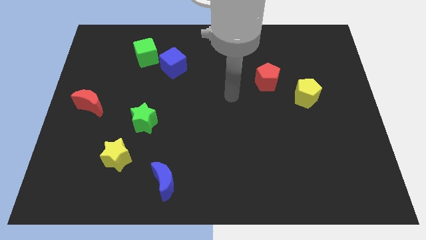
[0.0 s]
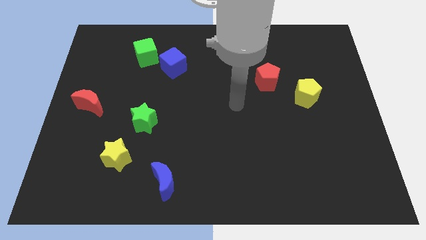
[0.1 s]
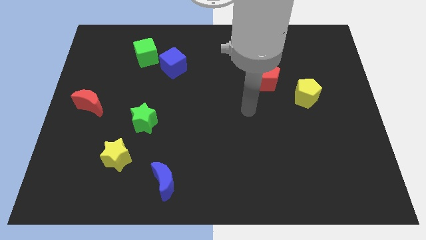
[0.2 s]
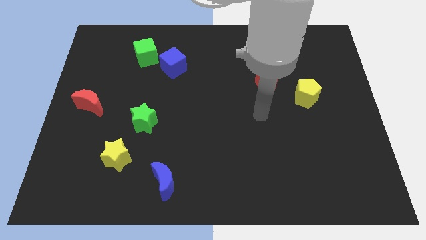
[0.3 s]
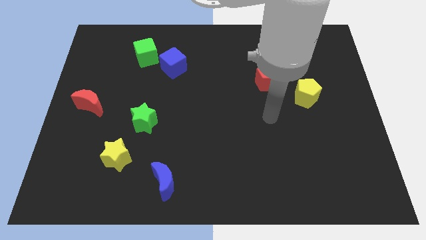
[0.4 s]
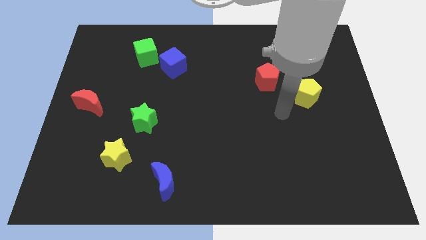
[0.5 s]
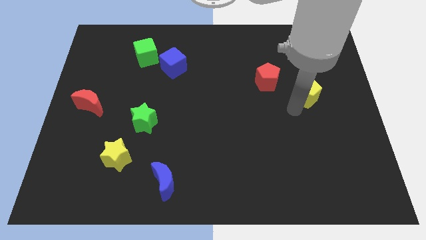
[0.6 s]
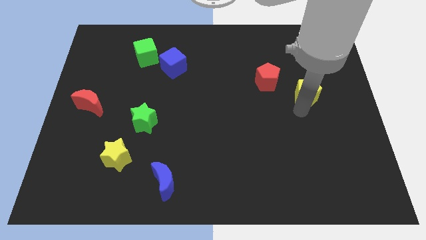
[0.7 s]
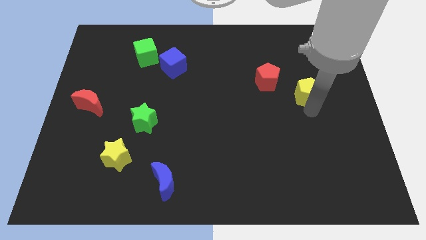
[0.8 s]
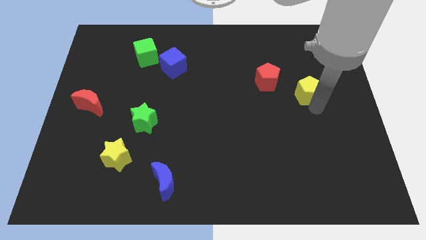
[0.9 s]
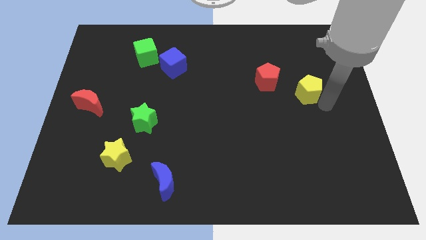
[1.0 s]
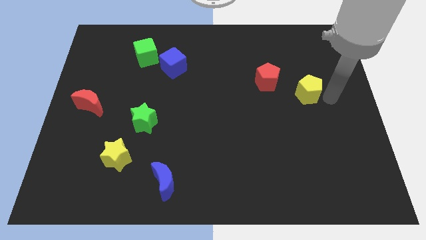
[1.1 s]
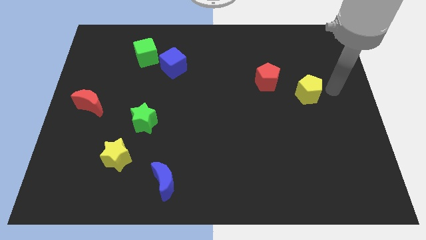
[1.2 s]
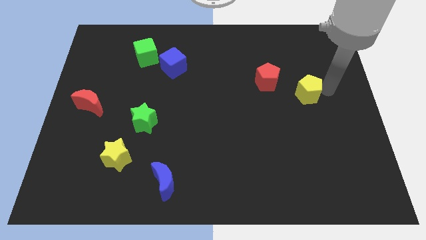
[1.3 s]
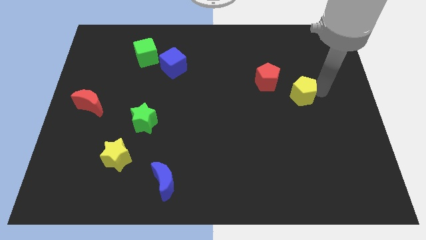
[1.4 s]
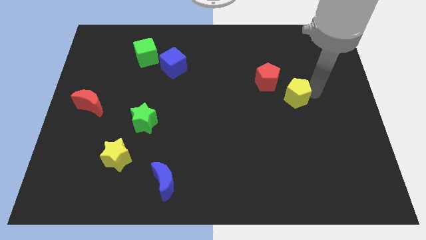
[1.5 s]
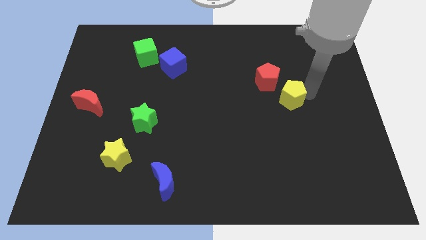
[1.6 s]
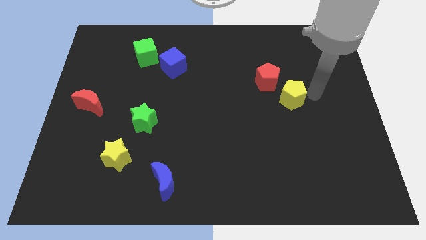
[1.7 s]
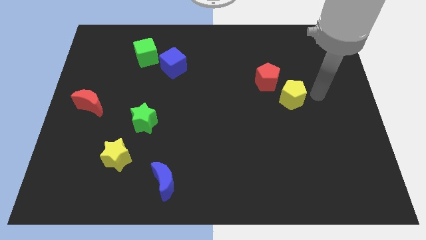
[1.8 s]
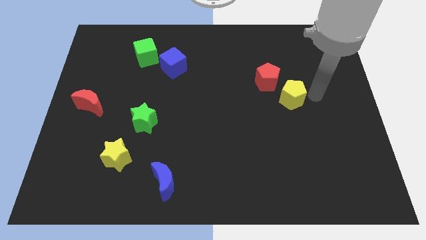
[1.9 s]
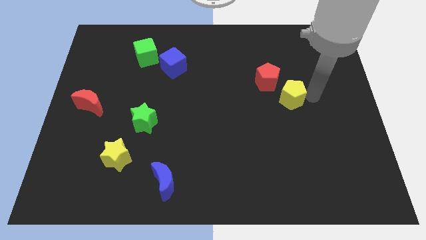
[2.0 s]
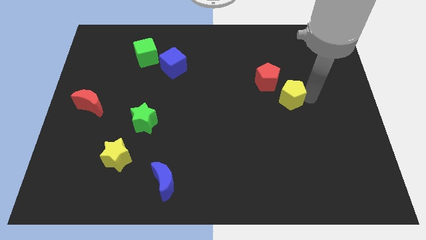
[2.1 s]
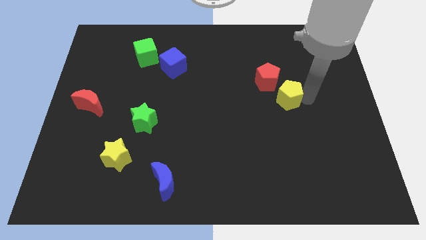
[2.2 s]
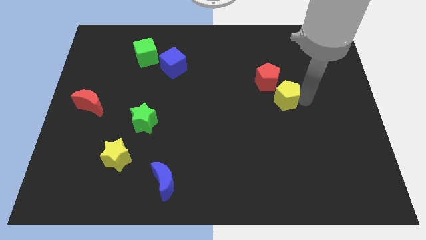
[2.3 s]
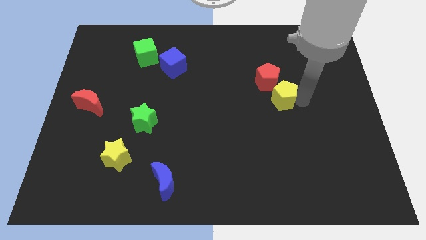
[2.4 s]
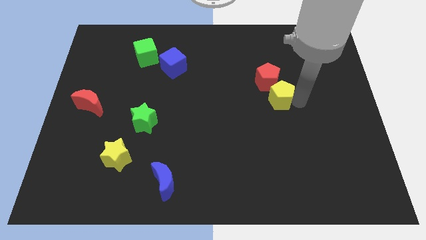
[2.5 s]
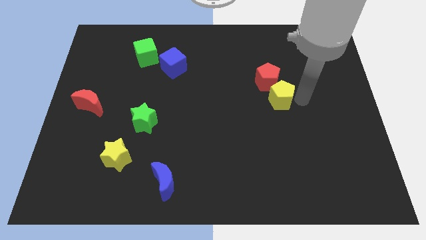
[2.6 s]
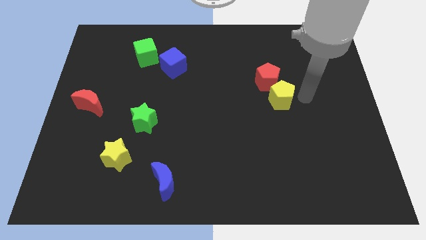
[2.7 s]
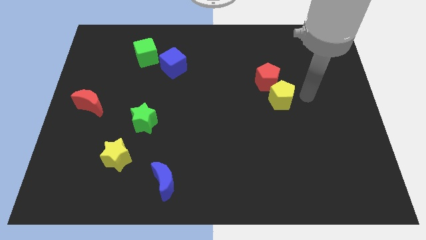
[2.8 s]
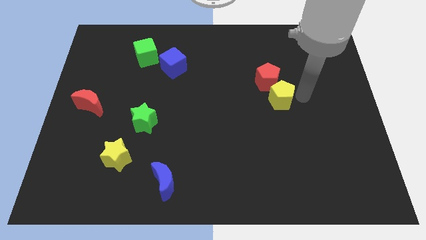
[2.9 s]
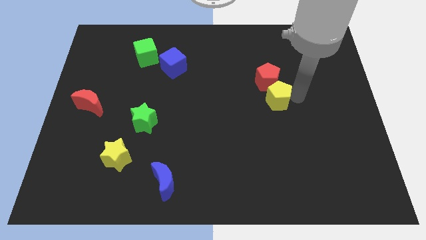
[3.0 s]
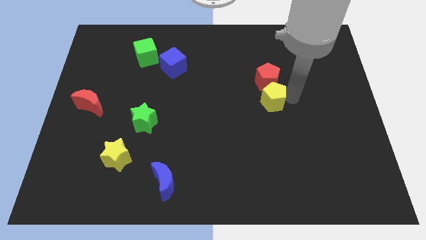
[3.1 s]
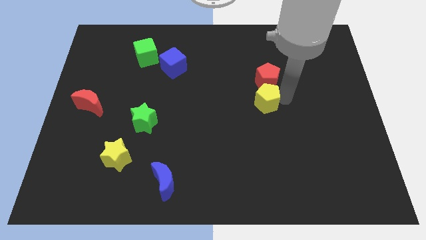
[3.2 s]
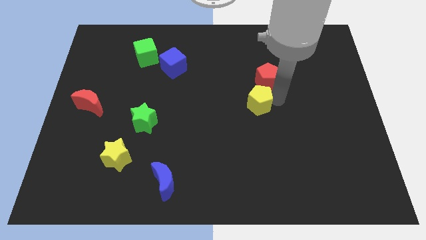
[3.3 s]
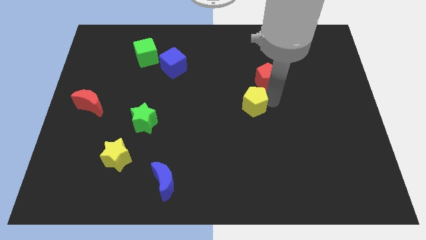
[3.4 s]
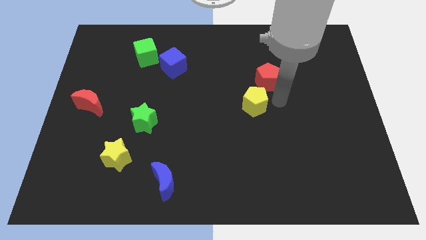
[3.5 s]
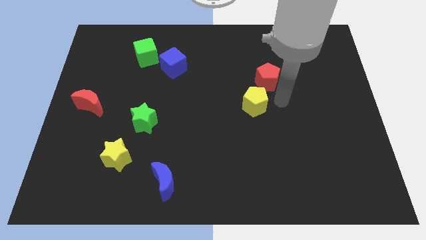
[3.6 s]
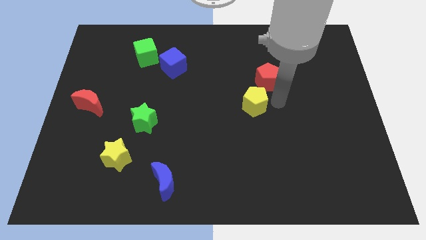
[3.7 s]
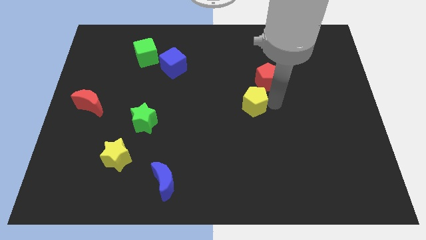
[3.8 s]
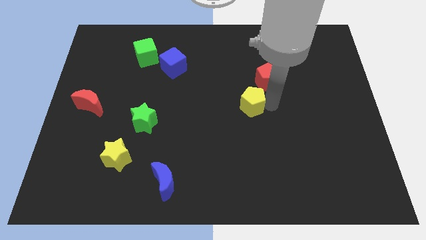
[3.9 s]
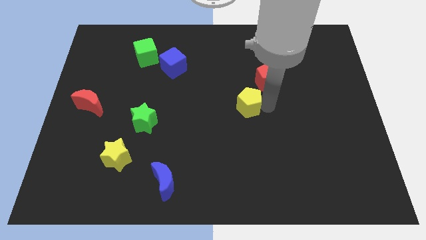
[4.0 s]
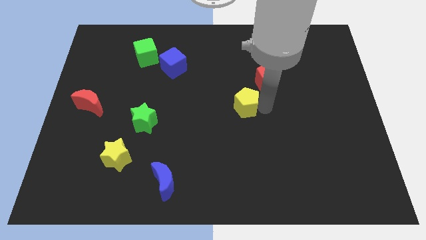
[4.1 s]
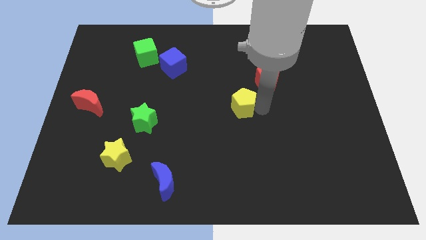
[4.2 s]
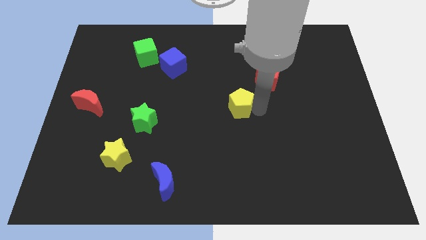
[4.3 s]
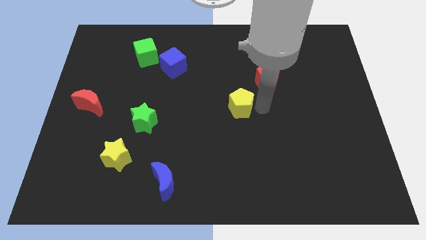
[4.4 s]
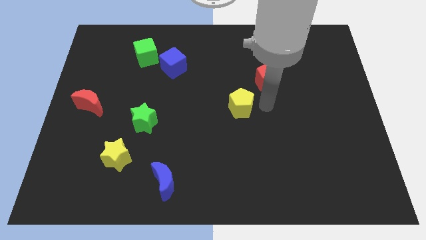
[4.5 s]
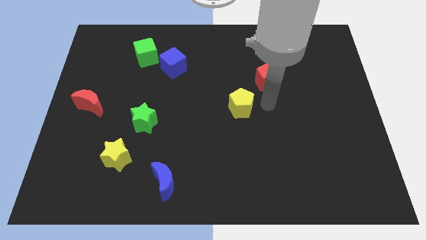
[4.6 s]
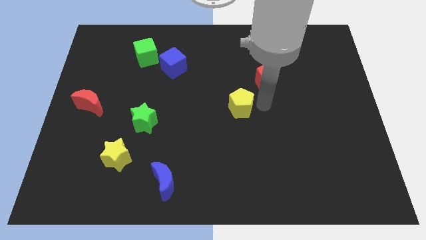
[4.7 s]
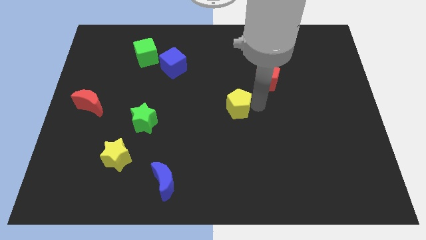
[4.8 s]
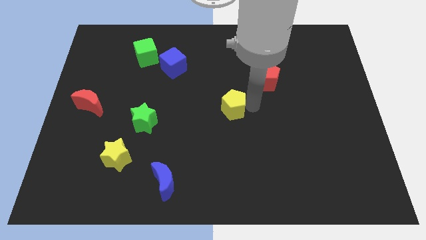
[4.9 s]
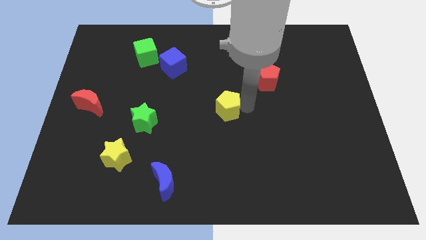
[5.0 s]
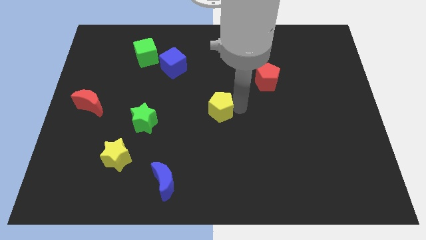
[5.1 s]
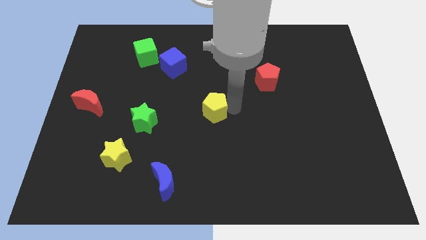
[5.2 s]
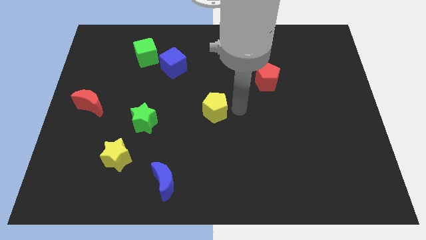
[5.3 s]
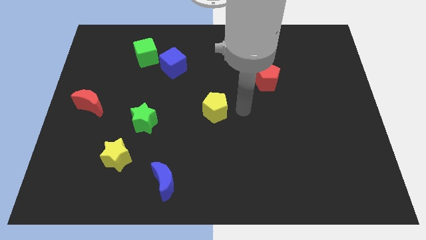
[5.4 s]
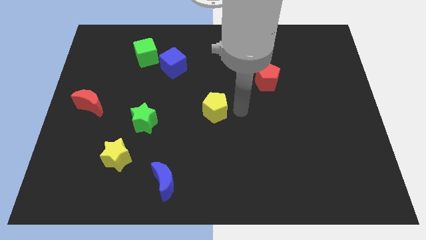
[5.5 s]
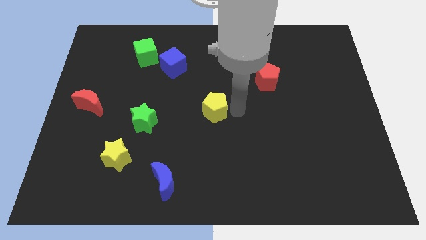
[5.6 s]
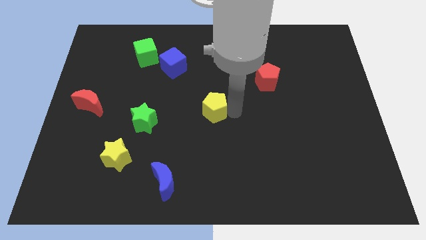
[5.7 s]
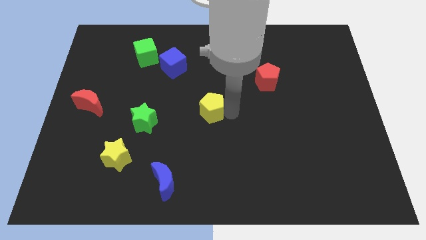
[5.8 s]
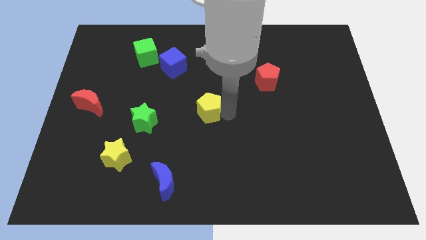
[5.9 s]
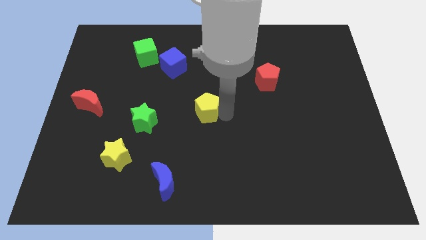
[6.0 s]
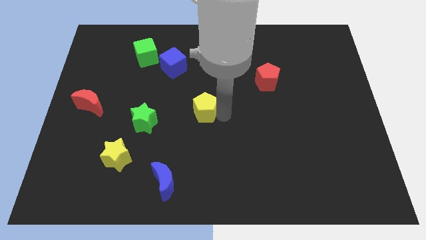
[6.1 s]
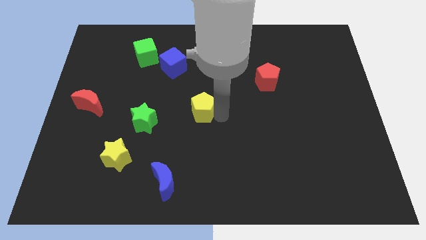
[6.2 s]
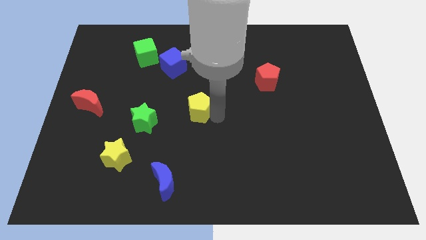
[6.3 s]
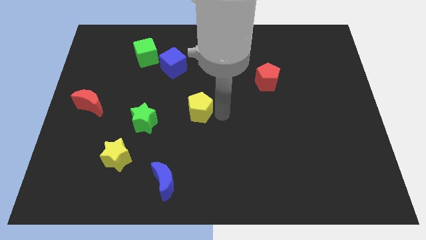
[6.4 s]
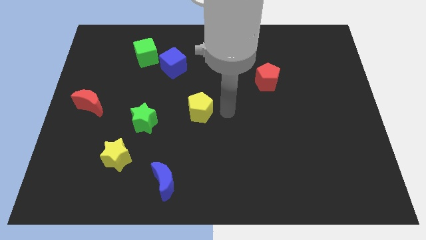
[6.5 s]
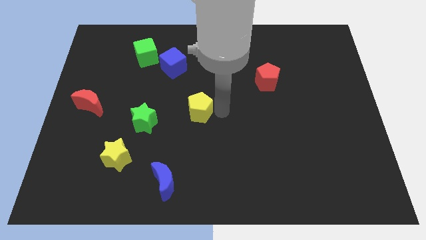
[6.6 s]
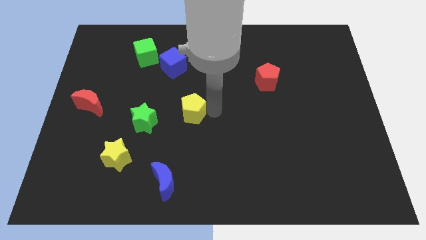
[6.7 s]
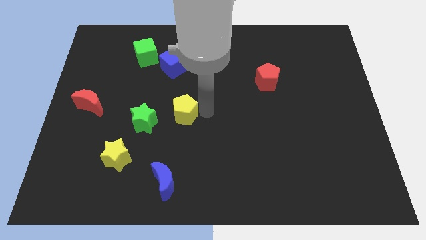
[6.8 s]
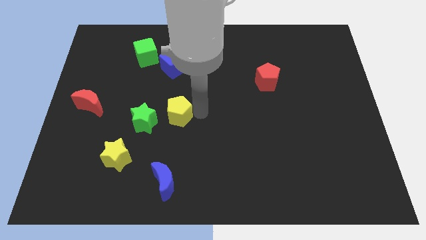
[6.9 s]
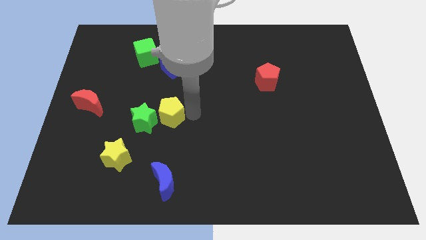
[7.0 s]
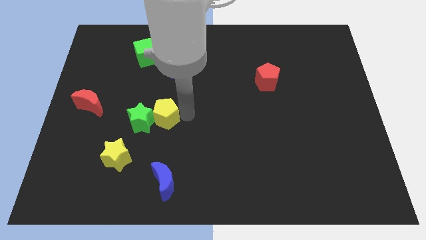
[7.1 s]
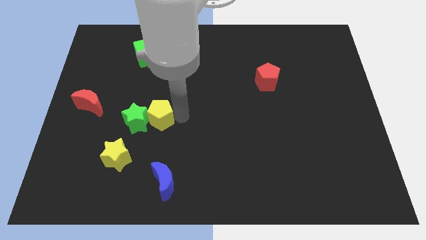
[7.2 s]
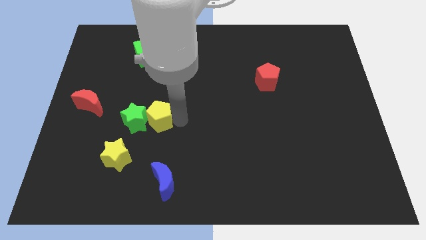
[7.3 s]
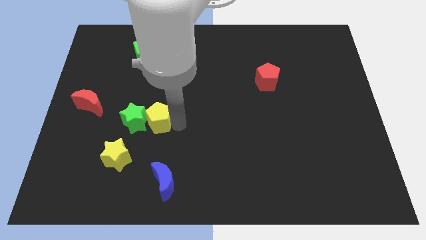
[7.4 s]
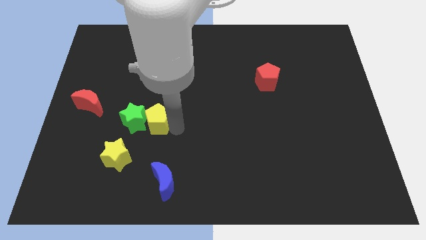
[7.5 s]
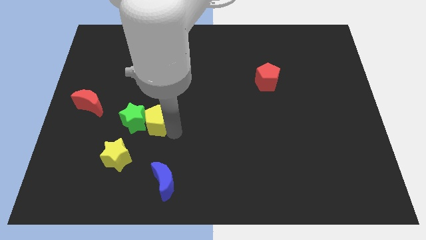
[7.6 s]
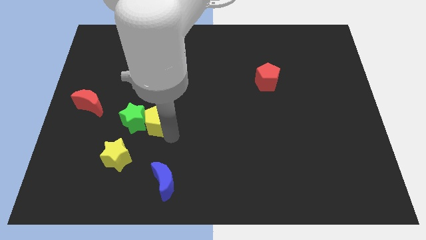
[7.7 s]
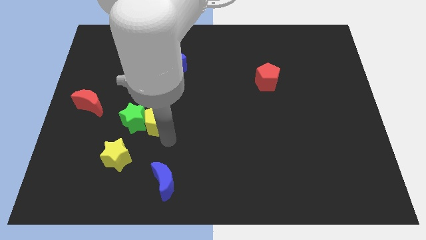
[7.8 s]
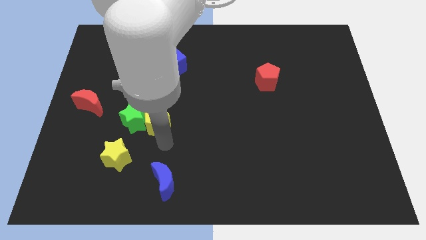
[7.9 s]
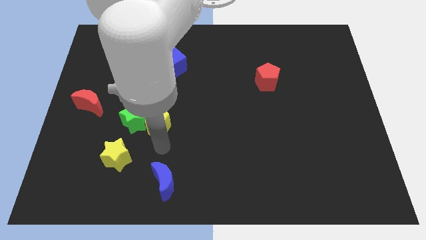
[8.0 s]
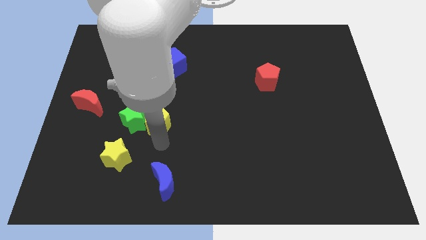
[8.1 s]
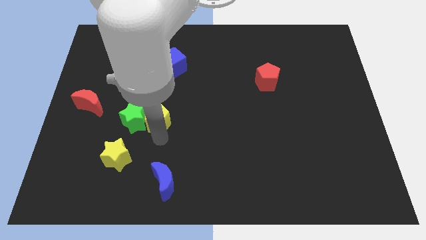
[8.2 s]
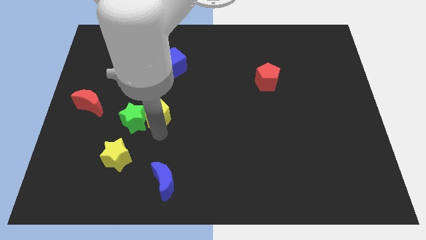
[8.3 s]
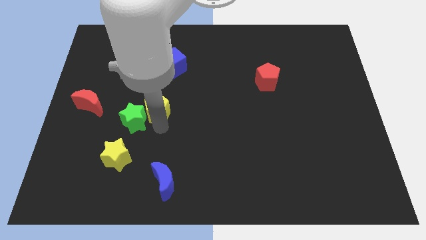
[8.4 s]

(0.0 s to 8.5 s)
slide the yellow pentagon to the right of the red moon
